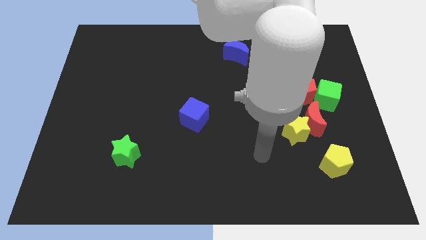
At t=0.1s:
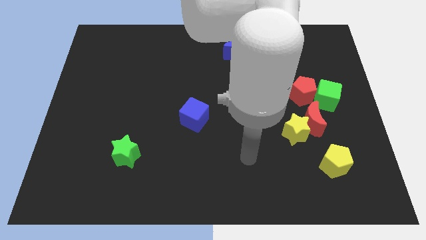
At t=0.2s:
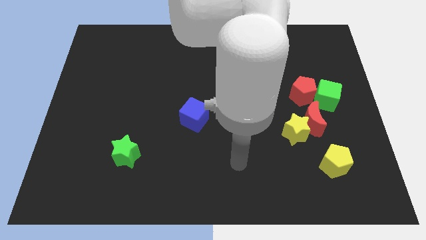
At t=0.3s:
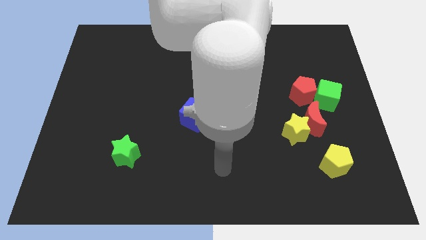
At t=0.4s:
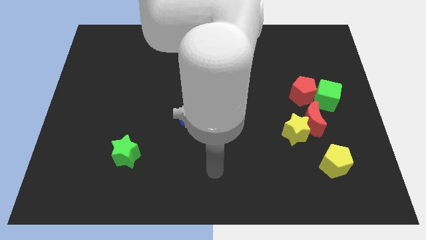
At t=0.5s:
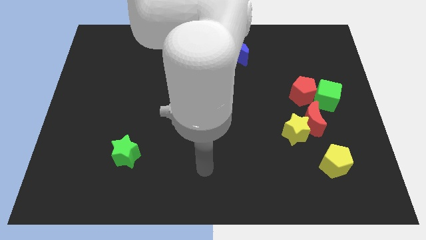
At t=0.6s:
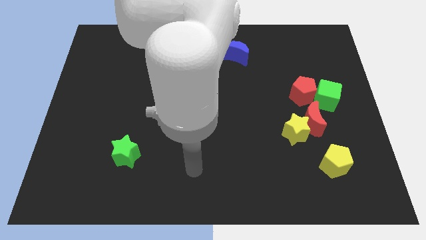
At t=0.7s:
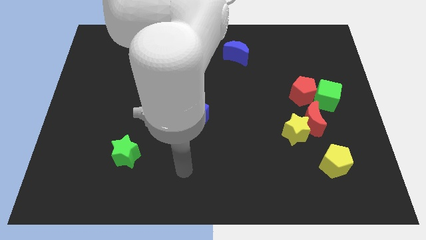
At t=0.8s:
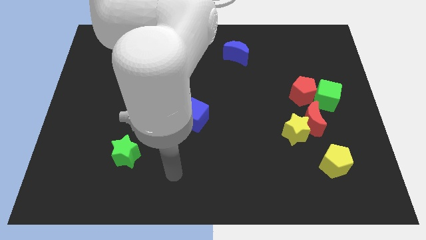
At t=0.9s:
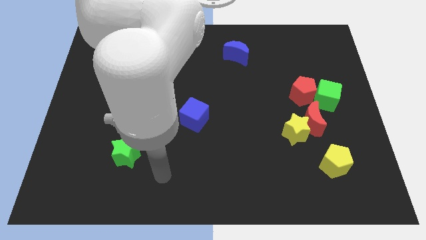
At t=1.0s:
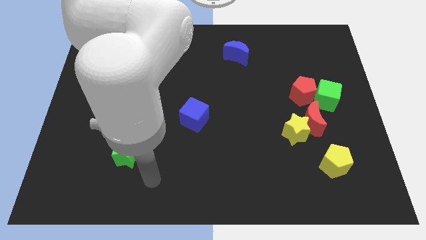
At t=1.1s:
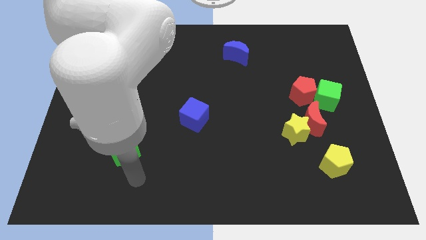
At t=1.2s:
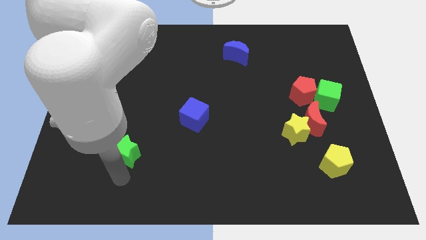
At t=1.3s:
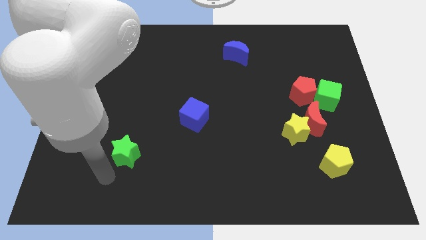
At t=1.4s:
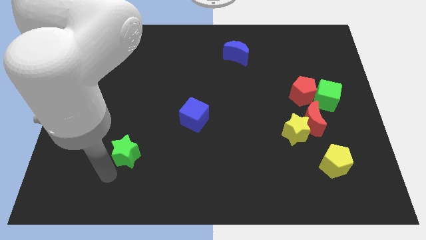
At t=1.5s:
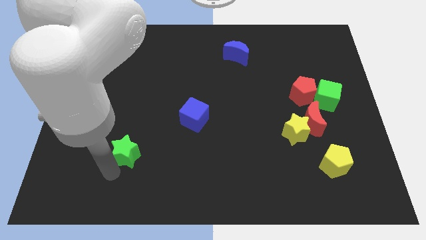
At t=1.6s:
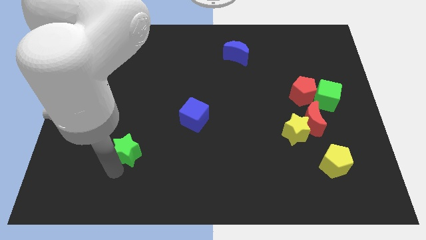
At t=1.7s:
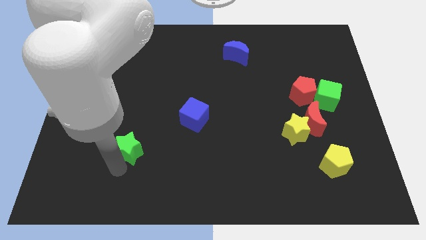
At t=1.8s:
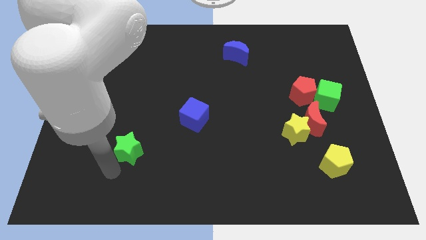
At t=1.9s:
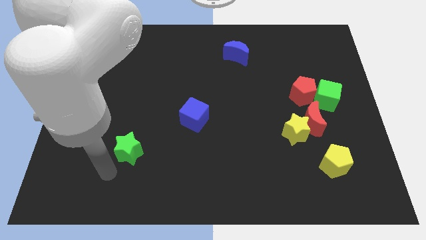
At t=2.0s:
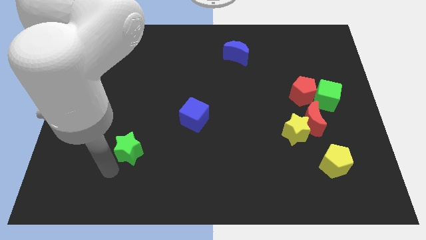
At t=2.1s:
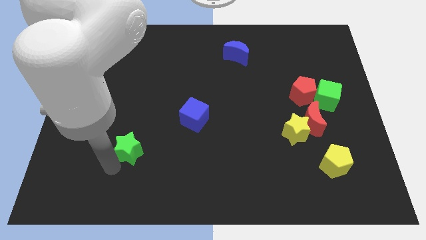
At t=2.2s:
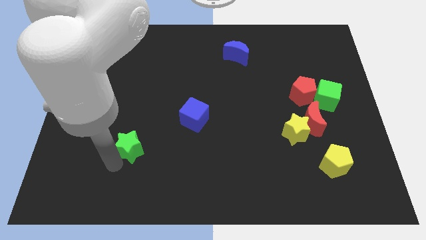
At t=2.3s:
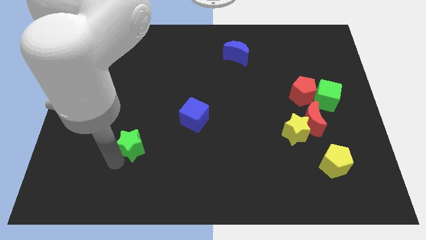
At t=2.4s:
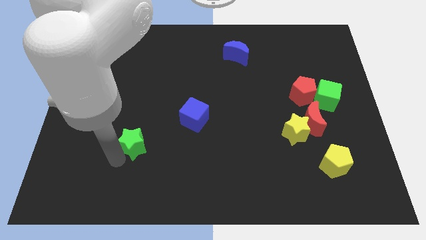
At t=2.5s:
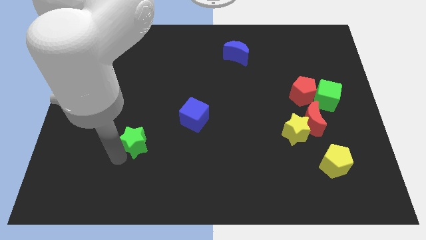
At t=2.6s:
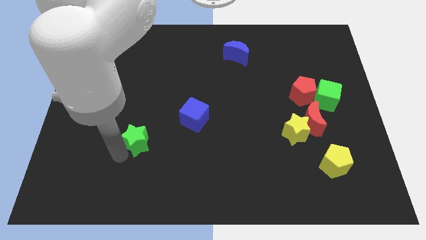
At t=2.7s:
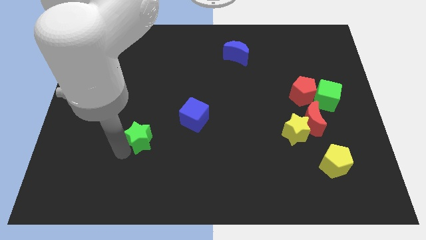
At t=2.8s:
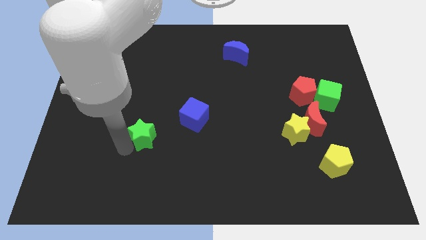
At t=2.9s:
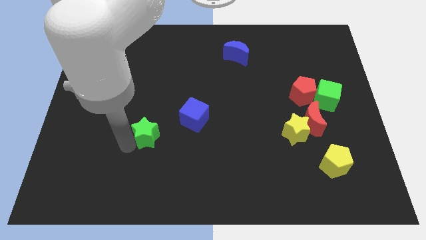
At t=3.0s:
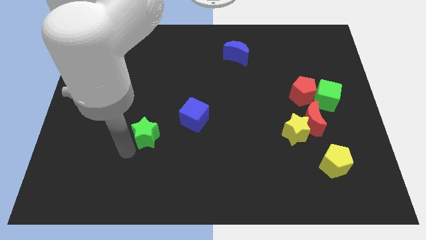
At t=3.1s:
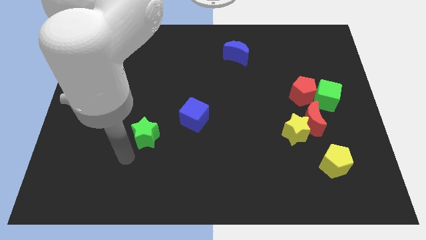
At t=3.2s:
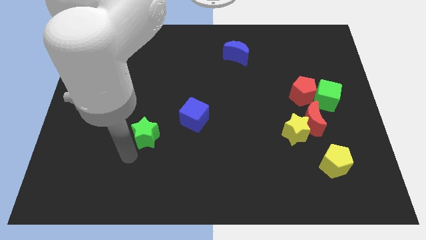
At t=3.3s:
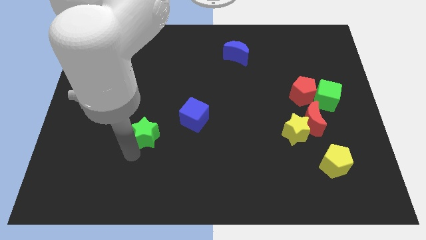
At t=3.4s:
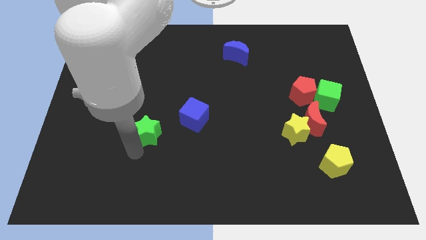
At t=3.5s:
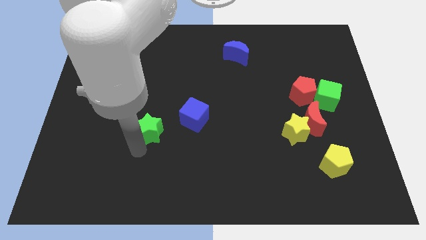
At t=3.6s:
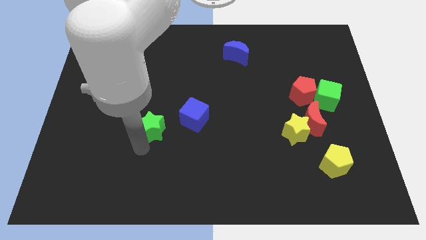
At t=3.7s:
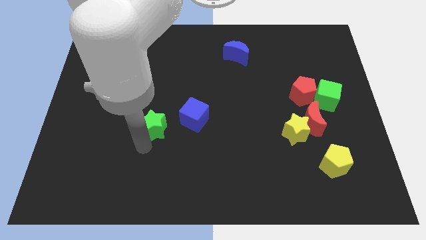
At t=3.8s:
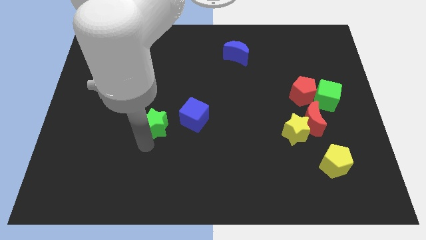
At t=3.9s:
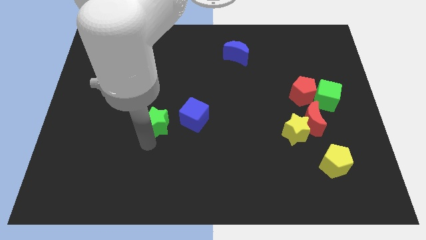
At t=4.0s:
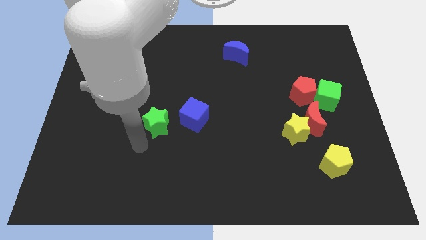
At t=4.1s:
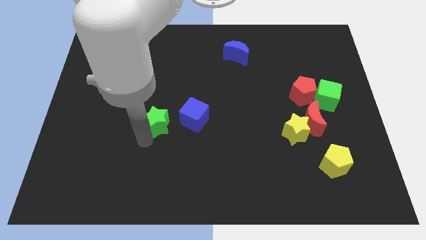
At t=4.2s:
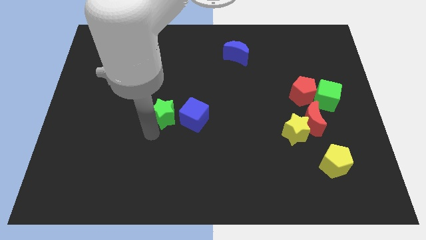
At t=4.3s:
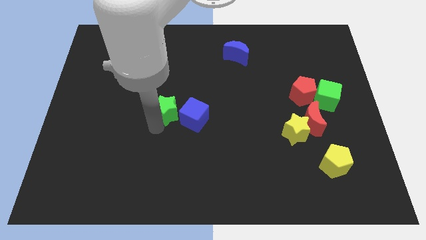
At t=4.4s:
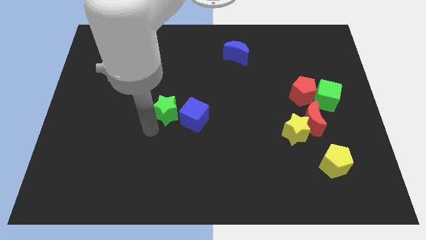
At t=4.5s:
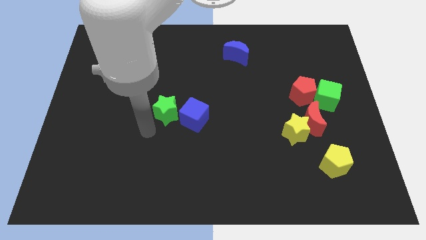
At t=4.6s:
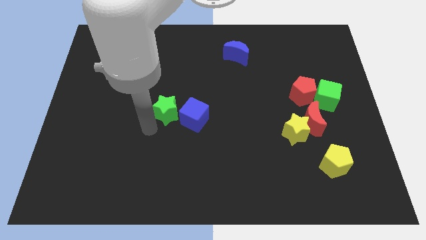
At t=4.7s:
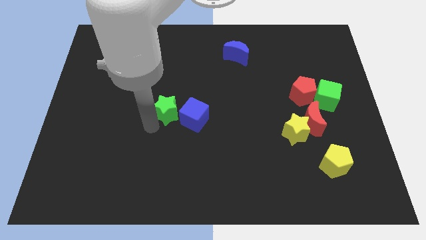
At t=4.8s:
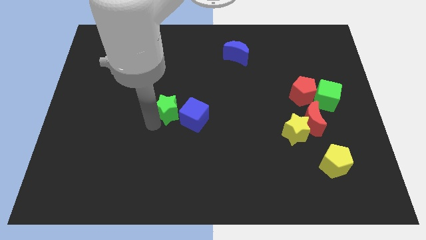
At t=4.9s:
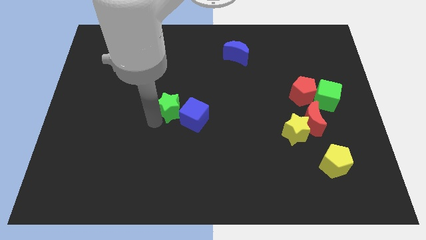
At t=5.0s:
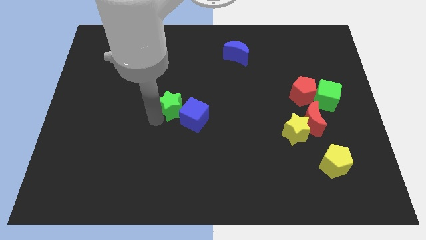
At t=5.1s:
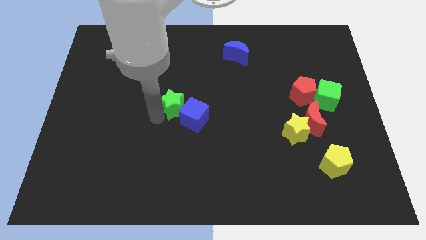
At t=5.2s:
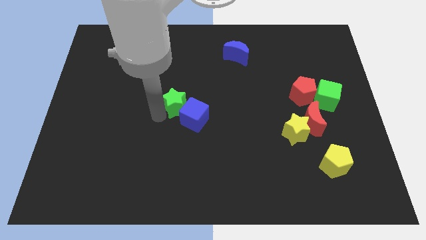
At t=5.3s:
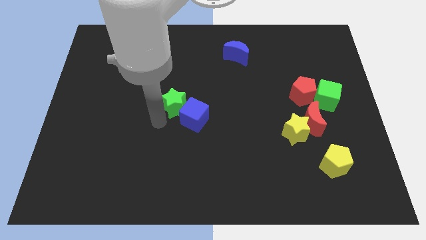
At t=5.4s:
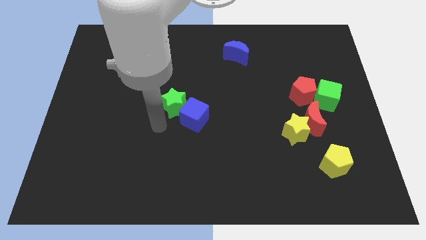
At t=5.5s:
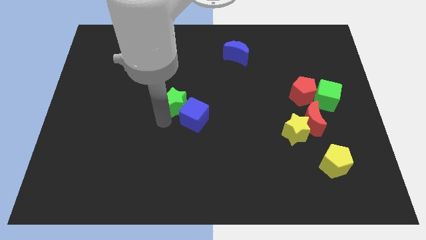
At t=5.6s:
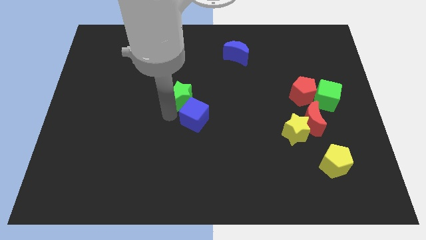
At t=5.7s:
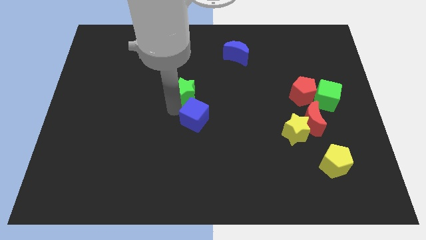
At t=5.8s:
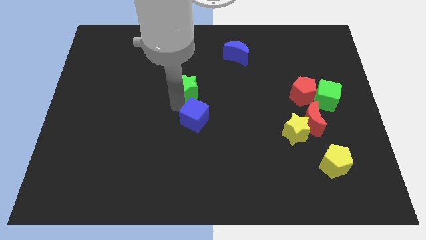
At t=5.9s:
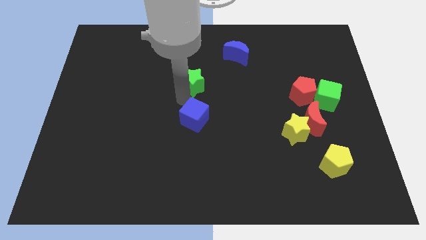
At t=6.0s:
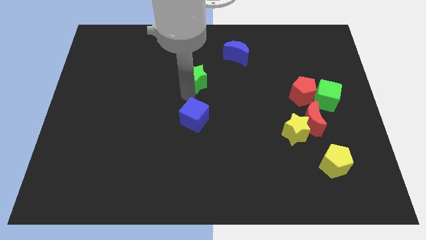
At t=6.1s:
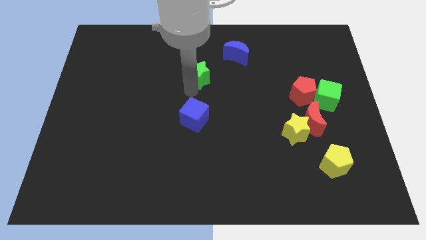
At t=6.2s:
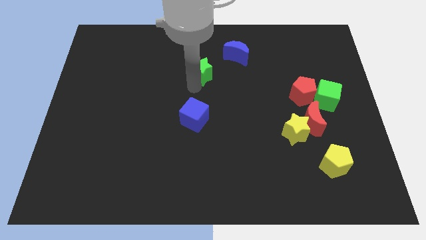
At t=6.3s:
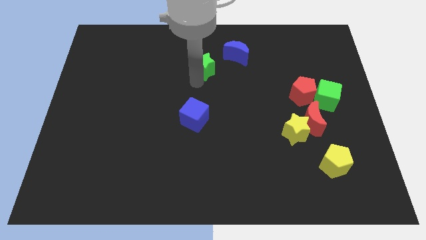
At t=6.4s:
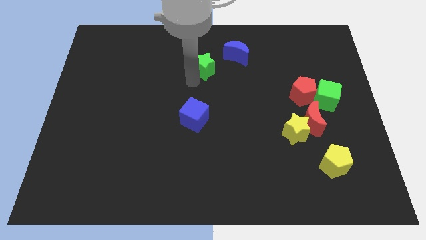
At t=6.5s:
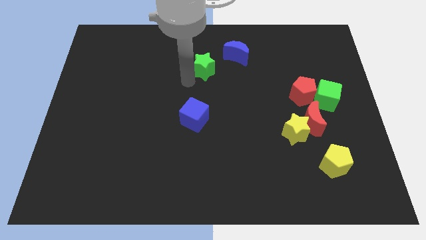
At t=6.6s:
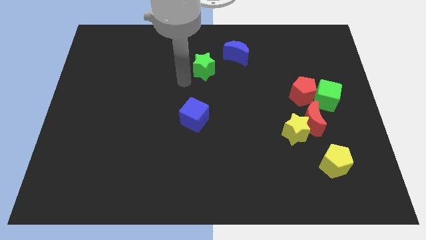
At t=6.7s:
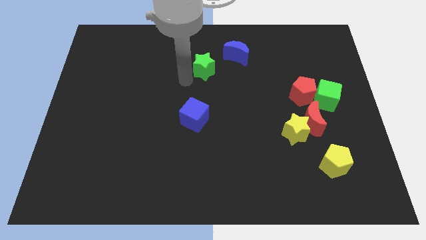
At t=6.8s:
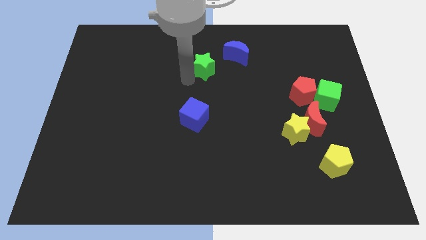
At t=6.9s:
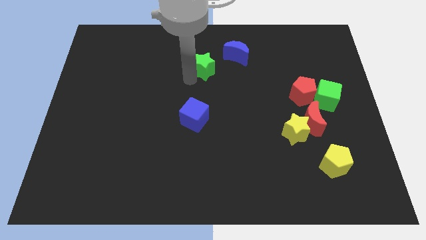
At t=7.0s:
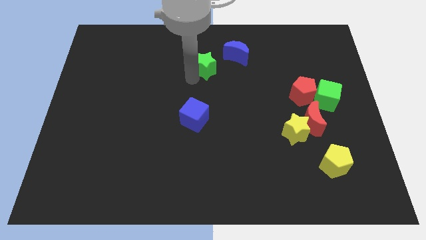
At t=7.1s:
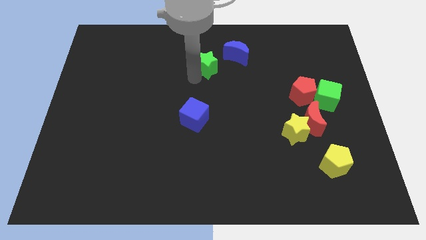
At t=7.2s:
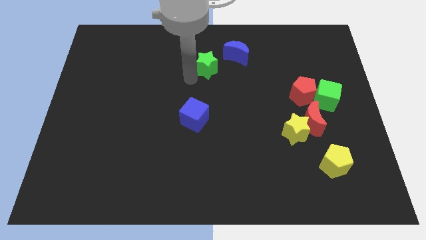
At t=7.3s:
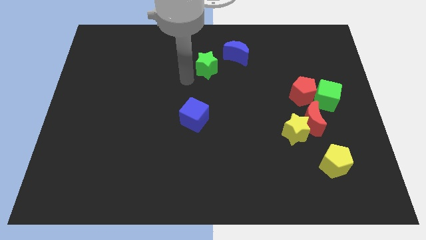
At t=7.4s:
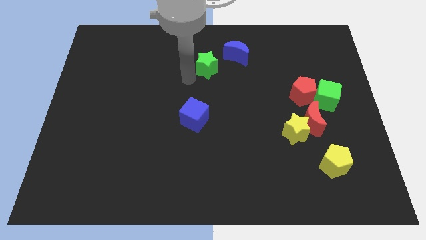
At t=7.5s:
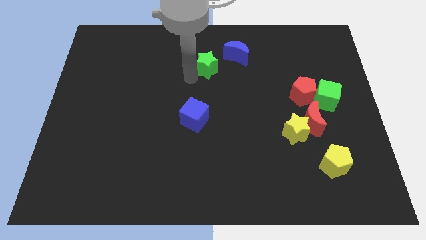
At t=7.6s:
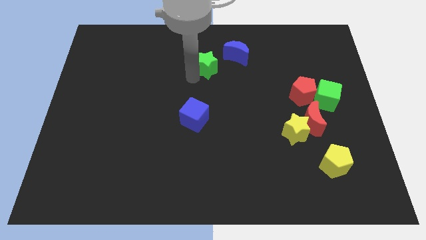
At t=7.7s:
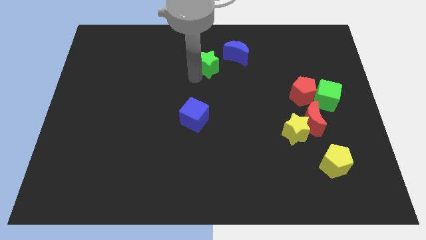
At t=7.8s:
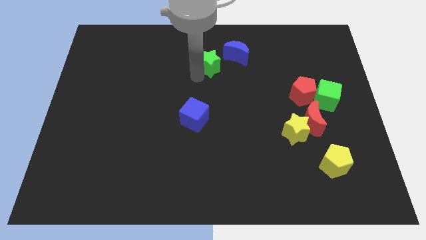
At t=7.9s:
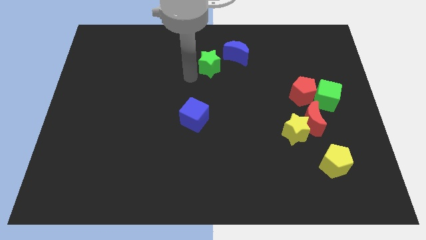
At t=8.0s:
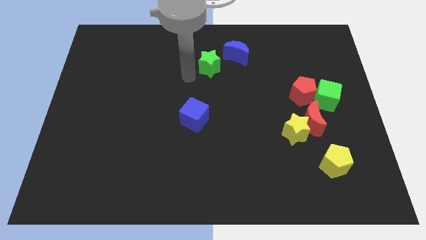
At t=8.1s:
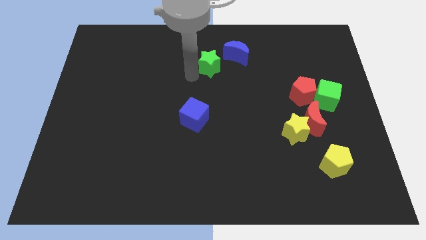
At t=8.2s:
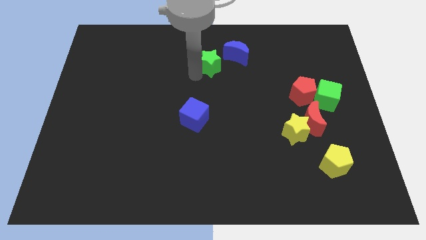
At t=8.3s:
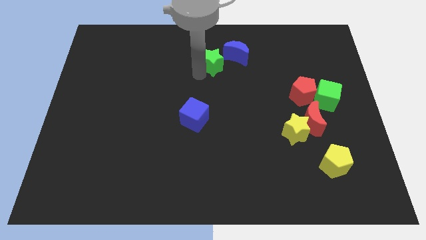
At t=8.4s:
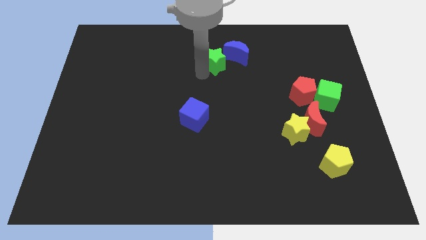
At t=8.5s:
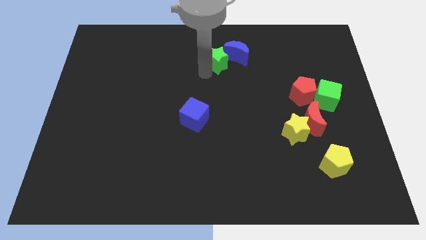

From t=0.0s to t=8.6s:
slide the green star towards the blue moon
